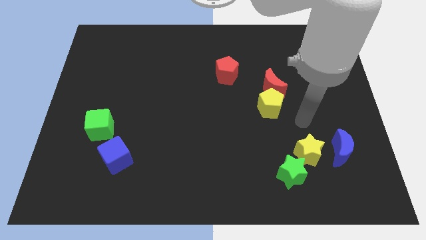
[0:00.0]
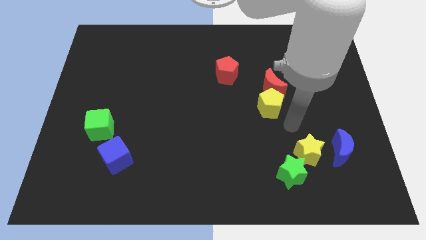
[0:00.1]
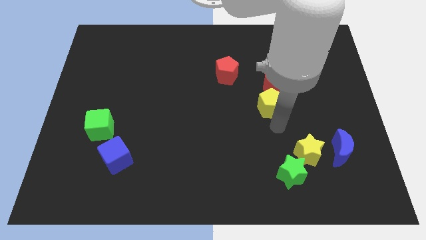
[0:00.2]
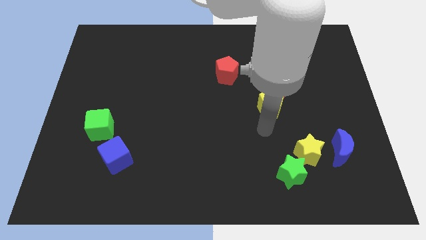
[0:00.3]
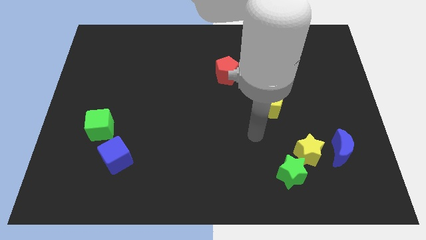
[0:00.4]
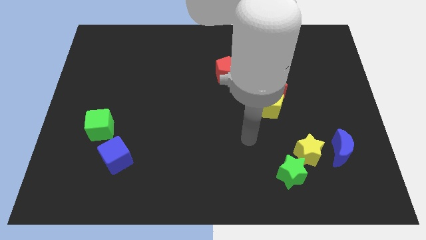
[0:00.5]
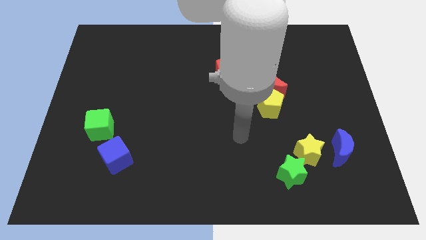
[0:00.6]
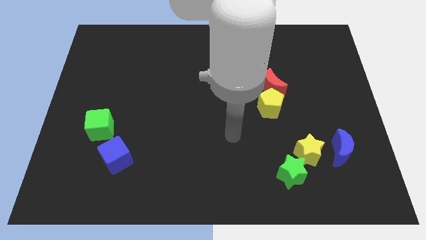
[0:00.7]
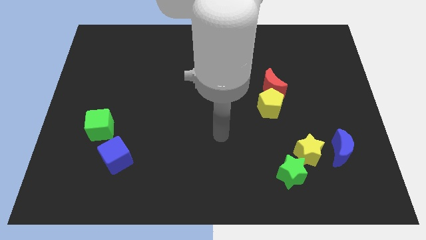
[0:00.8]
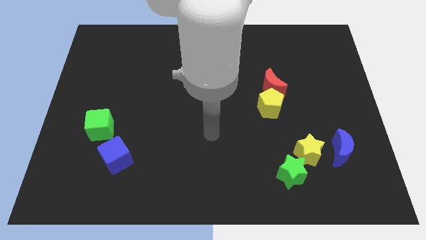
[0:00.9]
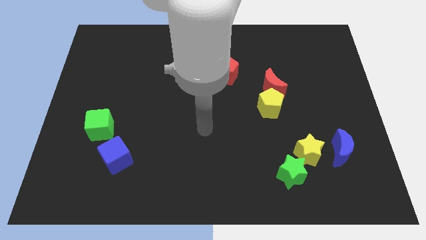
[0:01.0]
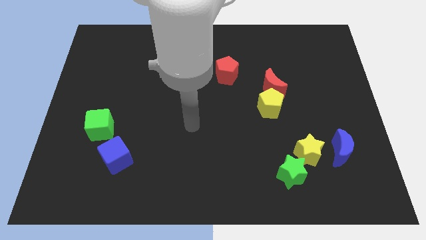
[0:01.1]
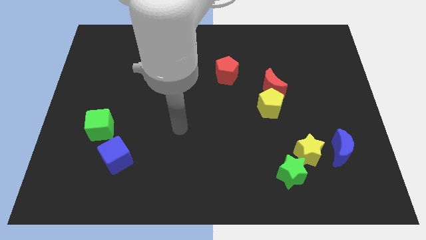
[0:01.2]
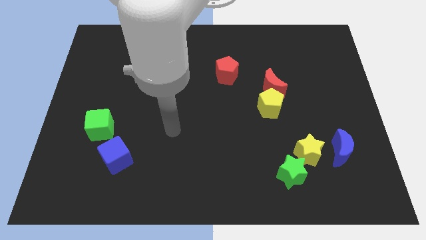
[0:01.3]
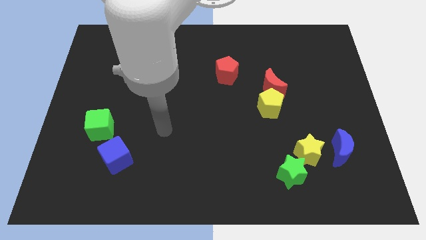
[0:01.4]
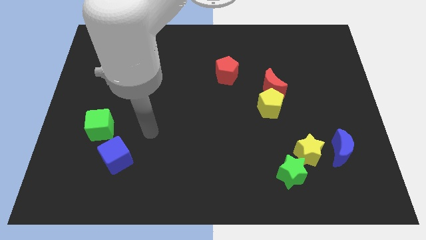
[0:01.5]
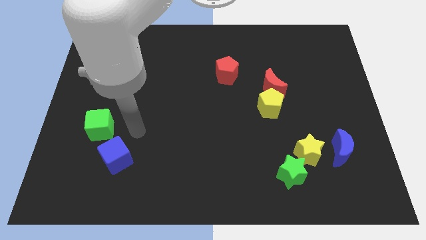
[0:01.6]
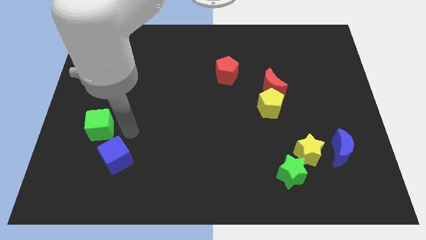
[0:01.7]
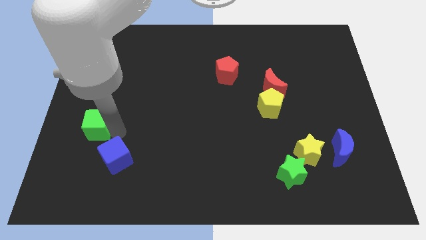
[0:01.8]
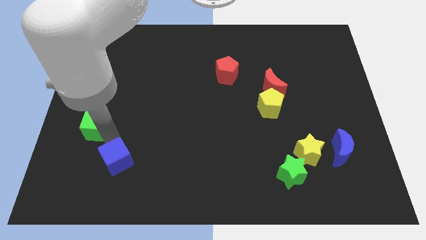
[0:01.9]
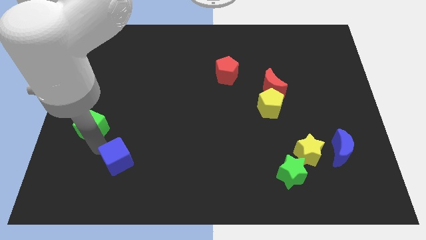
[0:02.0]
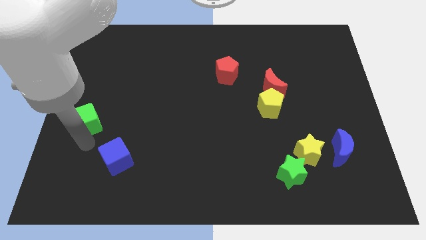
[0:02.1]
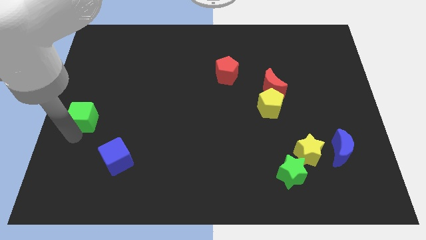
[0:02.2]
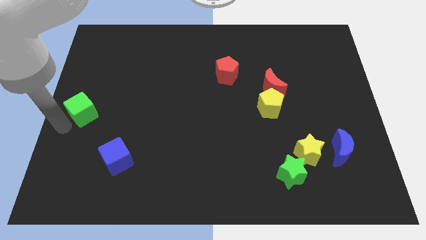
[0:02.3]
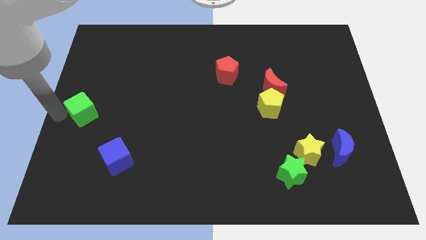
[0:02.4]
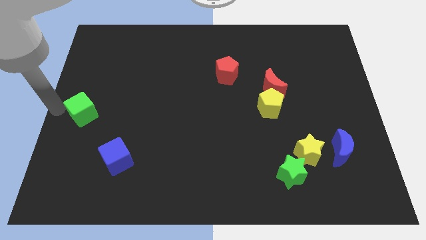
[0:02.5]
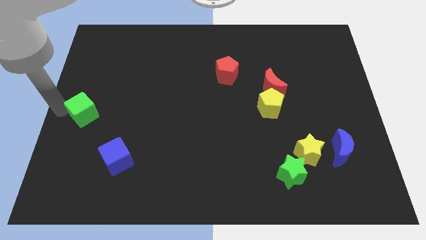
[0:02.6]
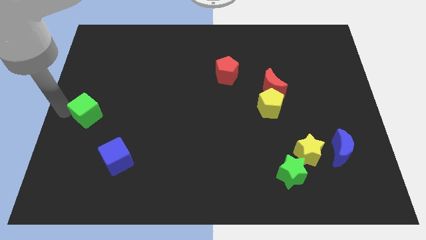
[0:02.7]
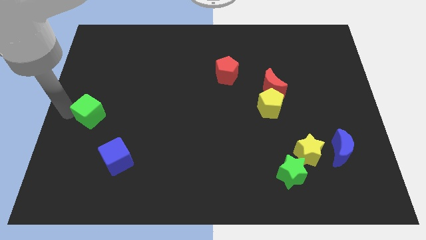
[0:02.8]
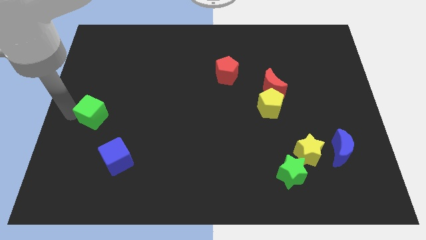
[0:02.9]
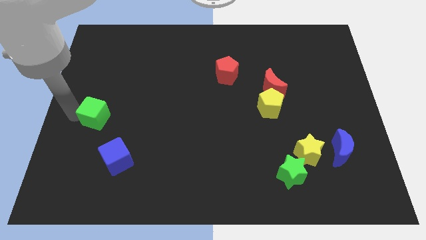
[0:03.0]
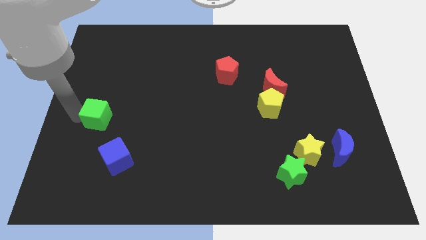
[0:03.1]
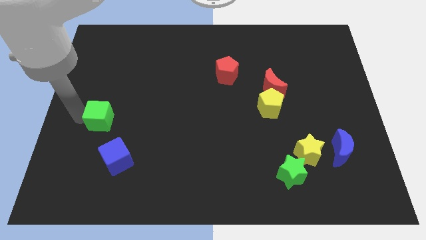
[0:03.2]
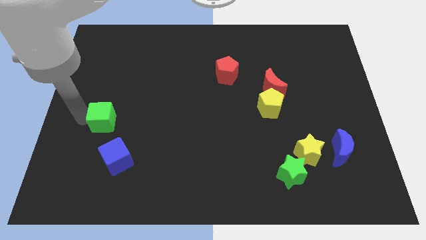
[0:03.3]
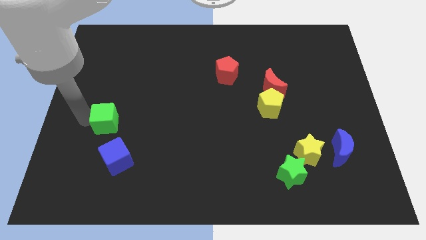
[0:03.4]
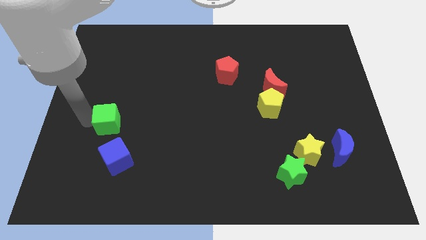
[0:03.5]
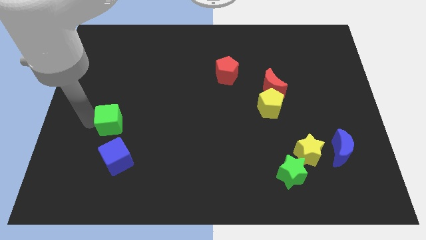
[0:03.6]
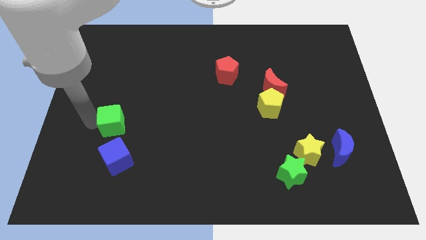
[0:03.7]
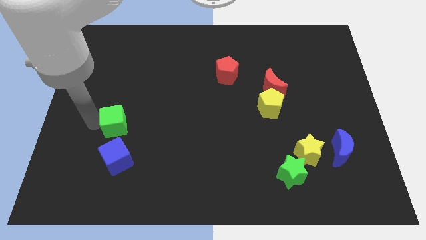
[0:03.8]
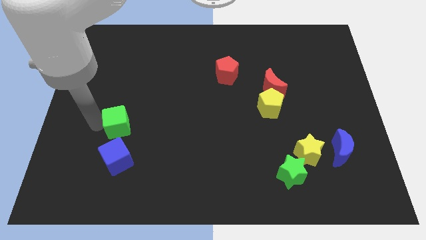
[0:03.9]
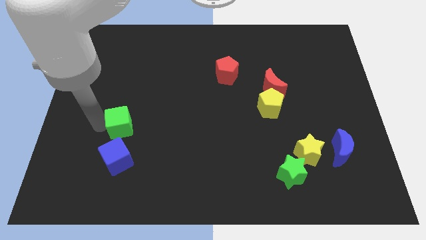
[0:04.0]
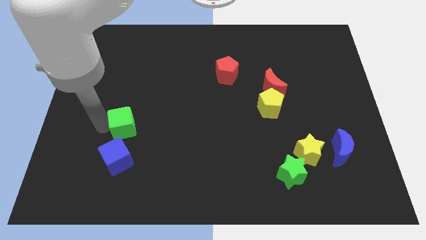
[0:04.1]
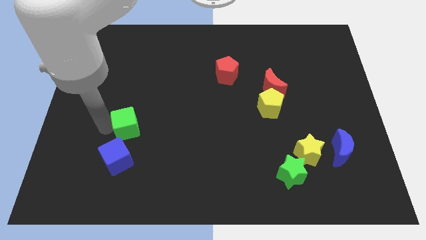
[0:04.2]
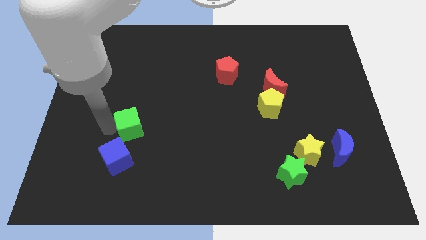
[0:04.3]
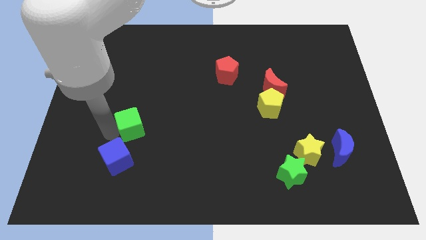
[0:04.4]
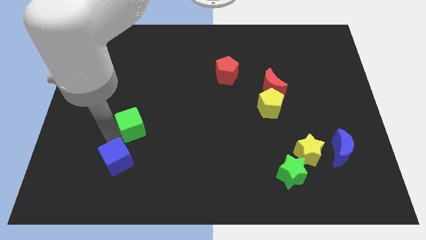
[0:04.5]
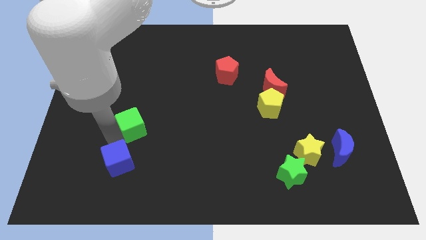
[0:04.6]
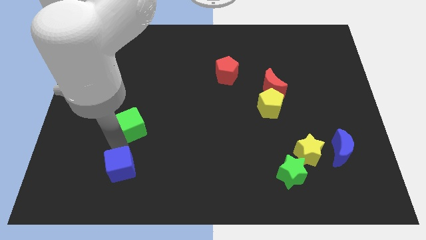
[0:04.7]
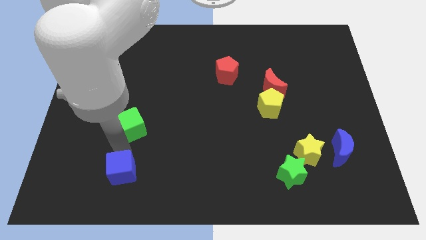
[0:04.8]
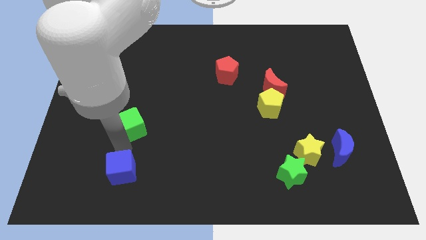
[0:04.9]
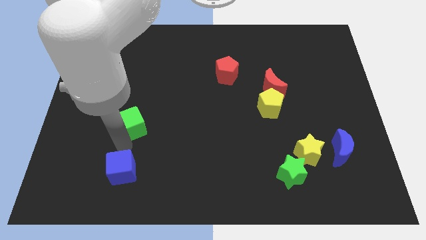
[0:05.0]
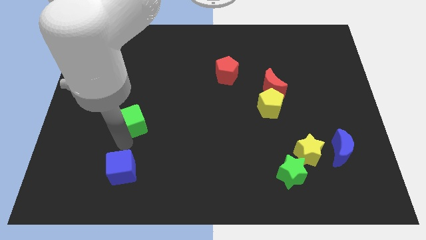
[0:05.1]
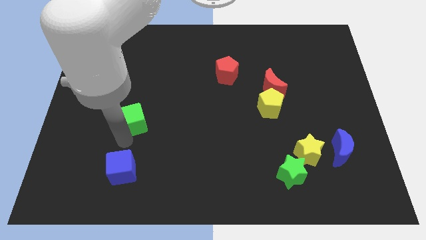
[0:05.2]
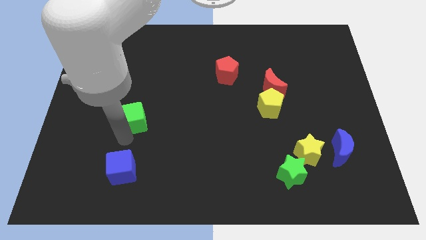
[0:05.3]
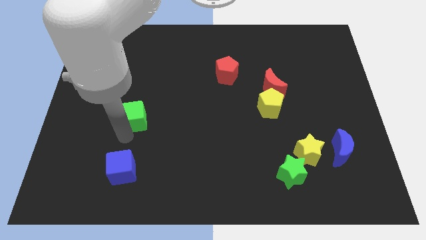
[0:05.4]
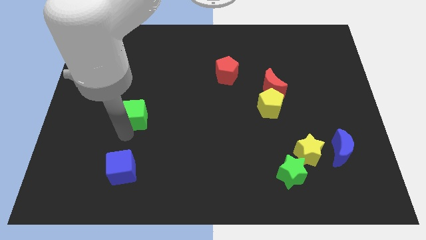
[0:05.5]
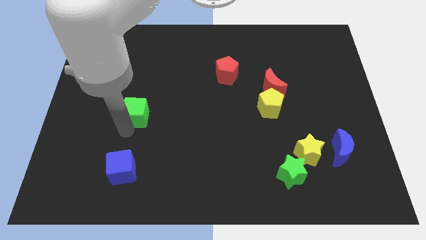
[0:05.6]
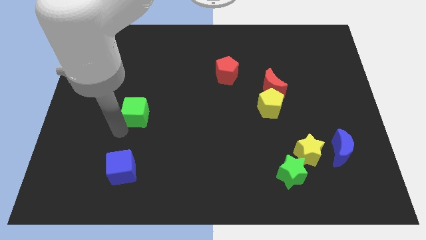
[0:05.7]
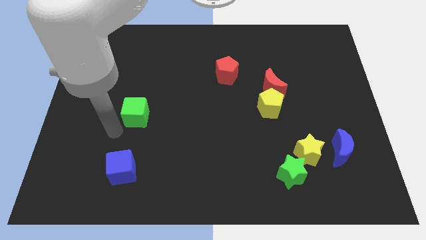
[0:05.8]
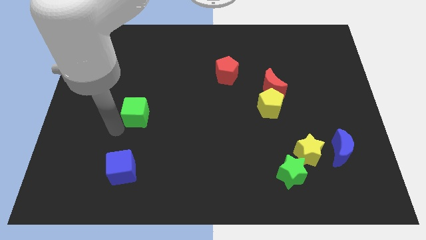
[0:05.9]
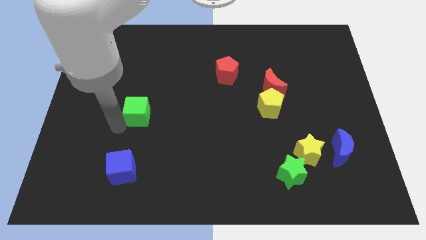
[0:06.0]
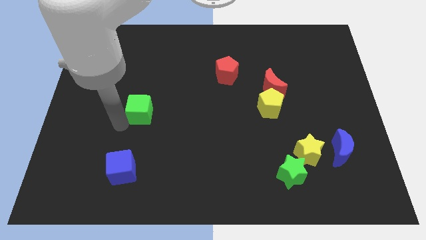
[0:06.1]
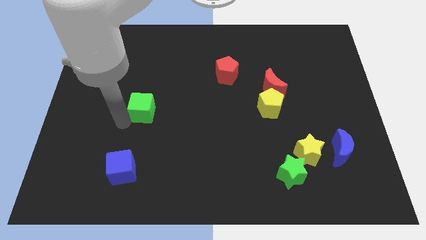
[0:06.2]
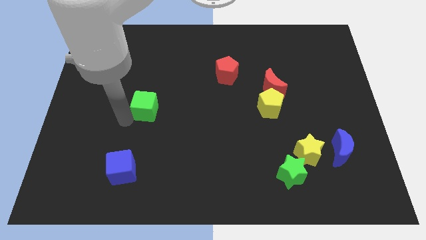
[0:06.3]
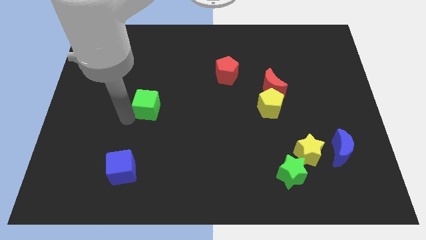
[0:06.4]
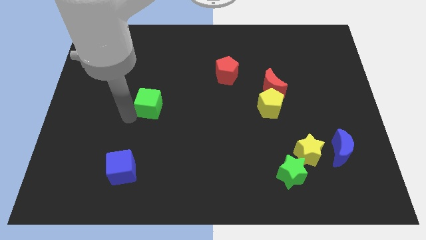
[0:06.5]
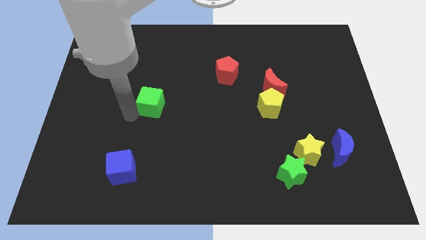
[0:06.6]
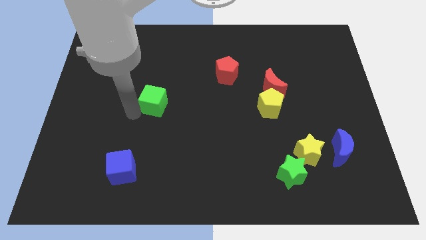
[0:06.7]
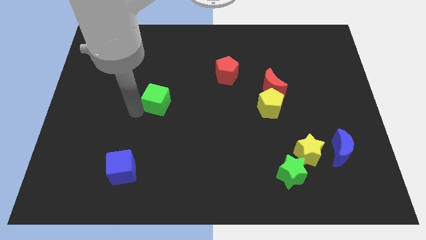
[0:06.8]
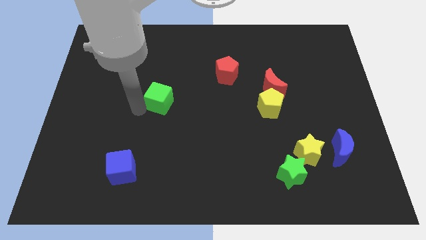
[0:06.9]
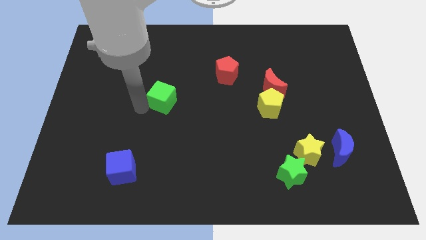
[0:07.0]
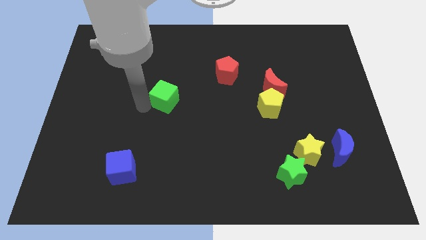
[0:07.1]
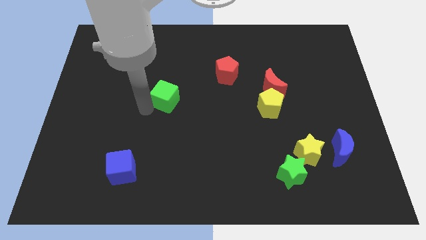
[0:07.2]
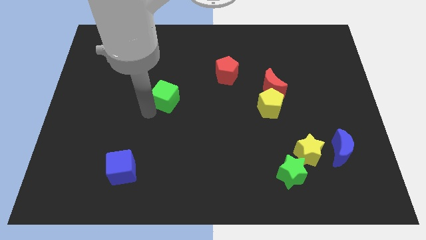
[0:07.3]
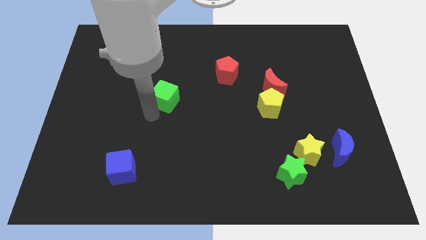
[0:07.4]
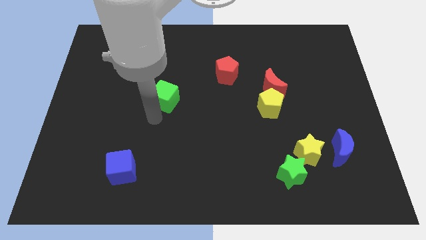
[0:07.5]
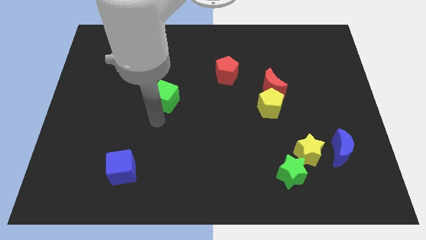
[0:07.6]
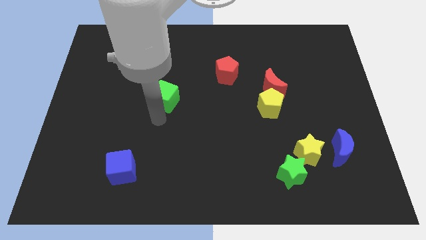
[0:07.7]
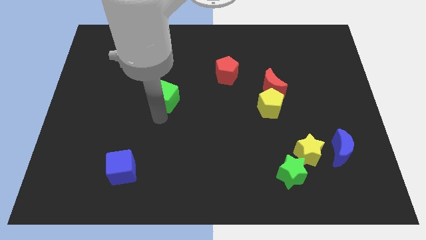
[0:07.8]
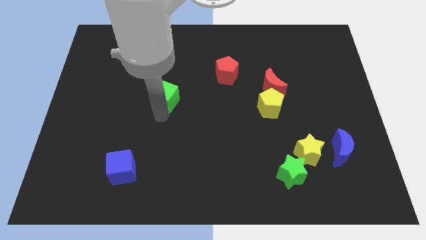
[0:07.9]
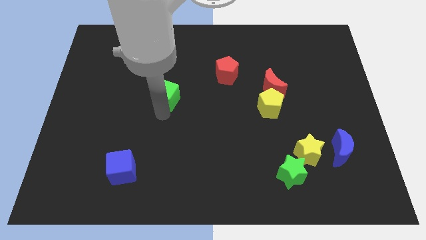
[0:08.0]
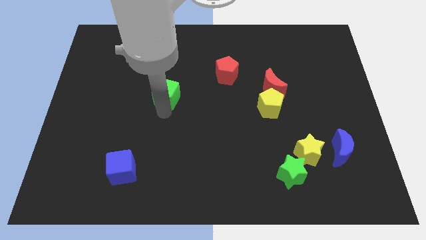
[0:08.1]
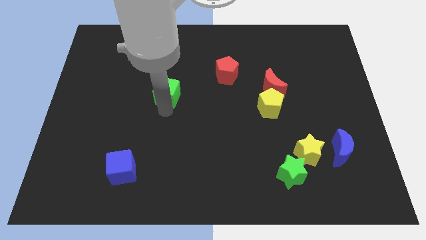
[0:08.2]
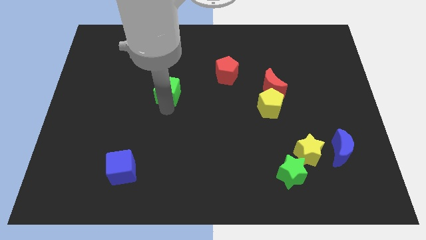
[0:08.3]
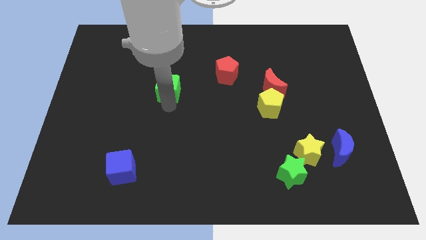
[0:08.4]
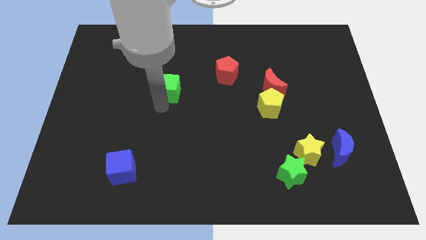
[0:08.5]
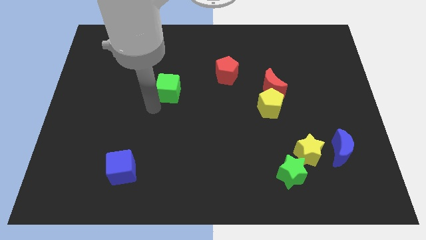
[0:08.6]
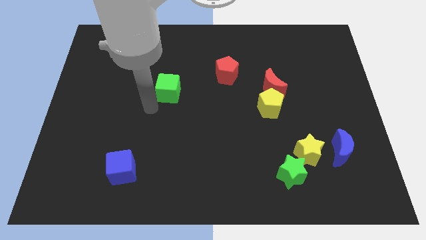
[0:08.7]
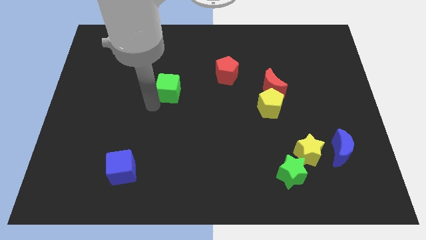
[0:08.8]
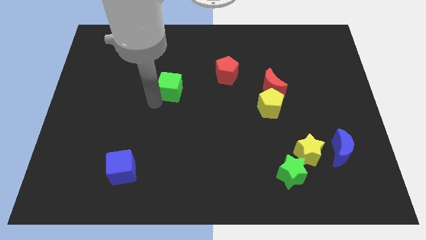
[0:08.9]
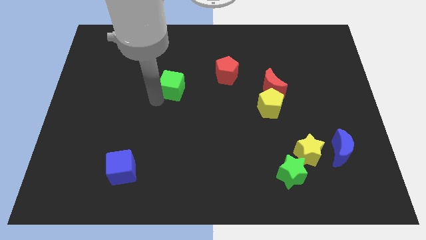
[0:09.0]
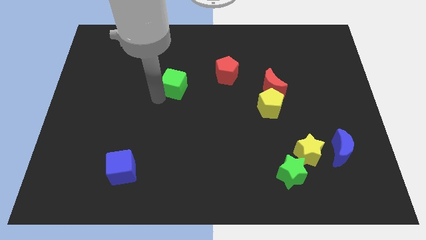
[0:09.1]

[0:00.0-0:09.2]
push the green cube diagonally up and to the right
